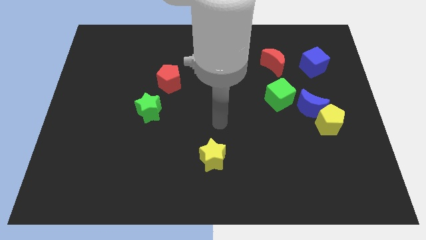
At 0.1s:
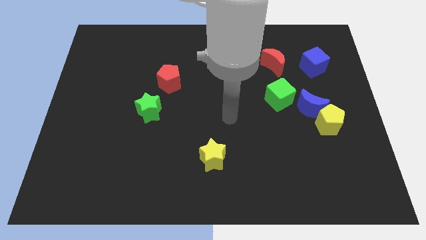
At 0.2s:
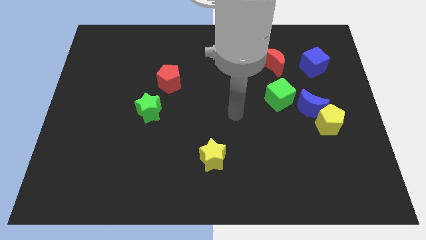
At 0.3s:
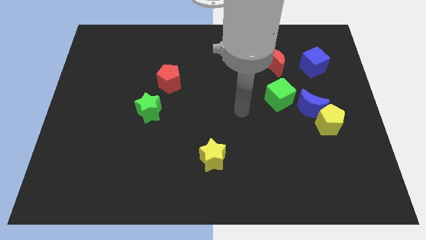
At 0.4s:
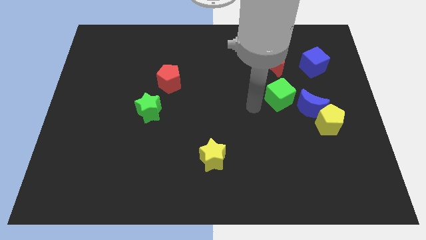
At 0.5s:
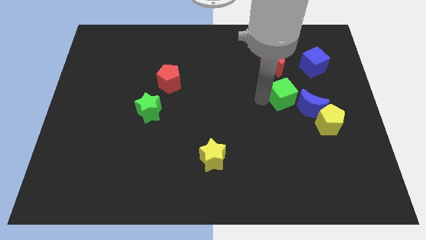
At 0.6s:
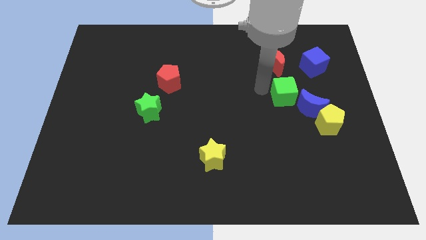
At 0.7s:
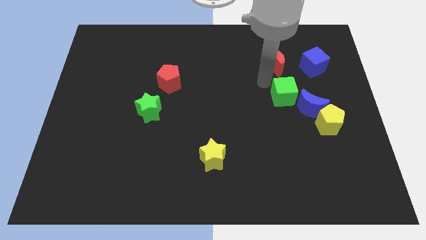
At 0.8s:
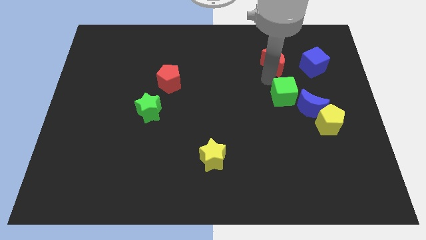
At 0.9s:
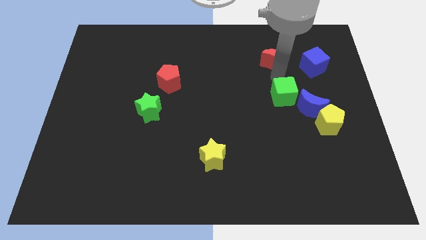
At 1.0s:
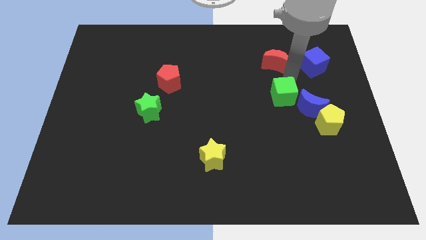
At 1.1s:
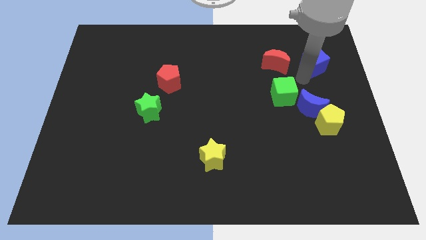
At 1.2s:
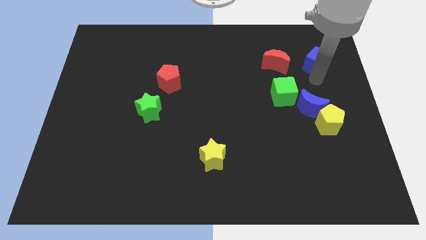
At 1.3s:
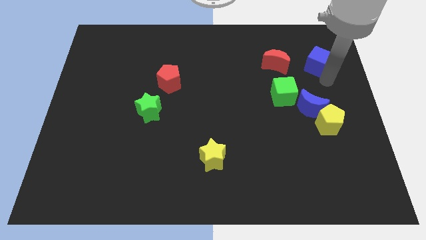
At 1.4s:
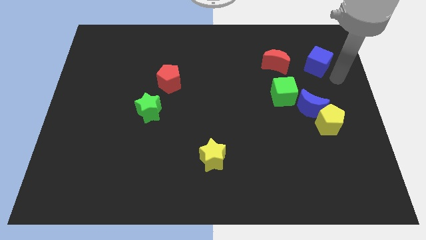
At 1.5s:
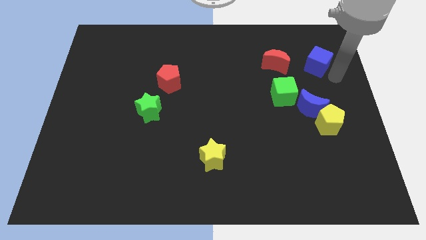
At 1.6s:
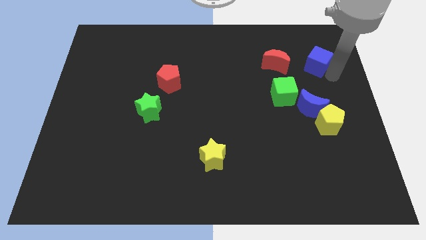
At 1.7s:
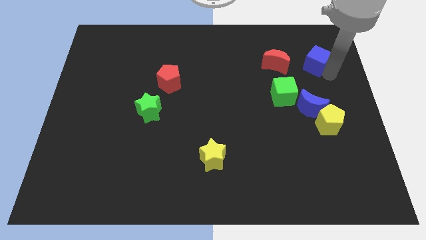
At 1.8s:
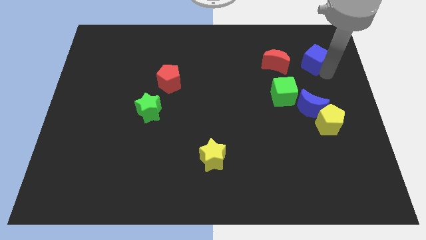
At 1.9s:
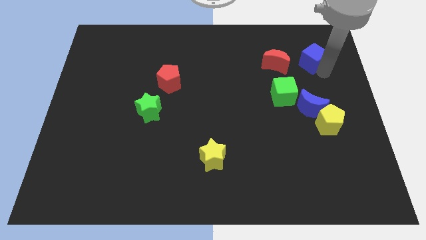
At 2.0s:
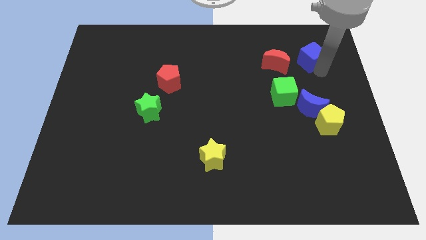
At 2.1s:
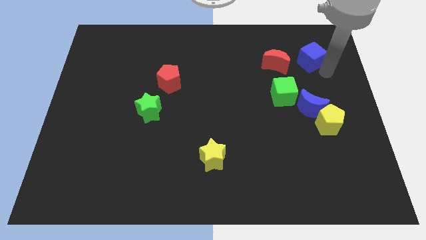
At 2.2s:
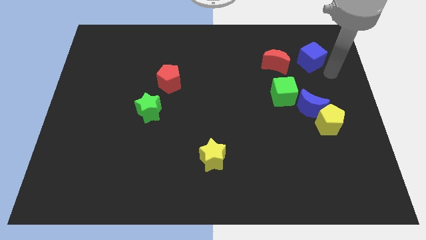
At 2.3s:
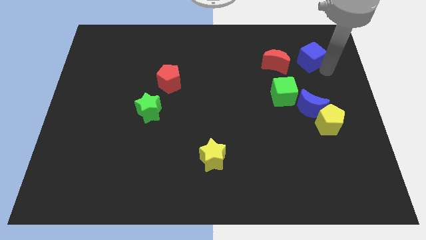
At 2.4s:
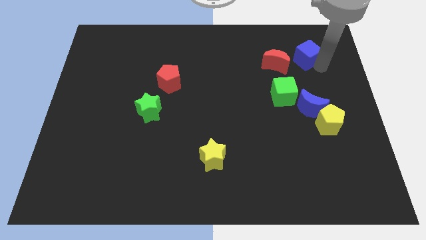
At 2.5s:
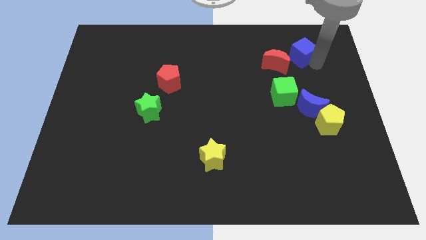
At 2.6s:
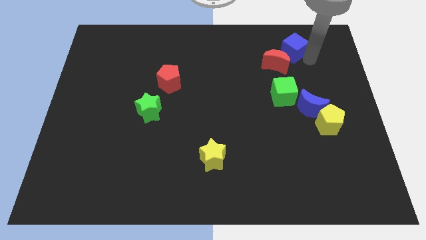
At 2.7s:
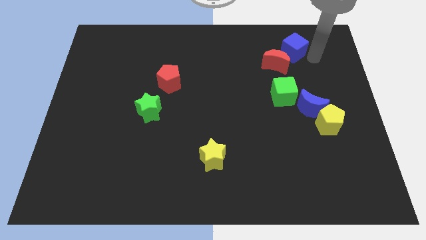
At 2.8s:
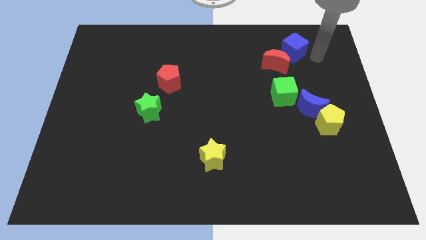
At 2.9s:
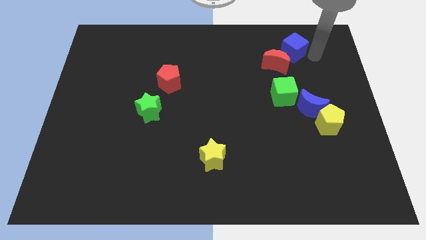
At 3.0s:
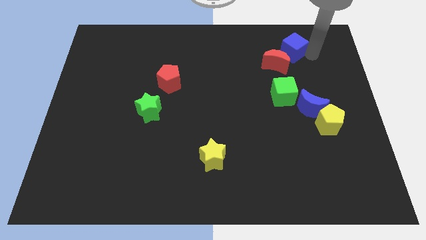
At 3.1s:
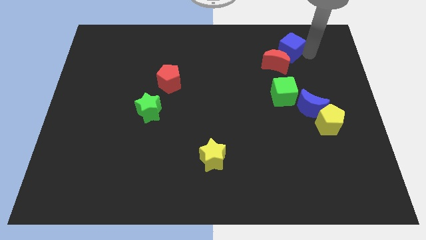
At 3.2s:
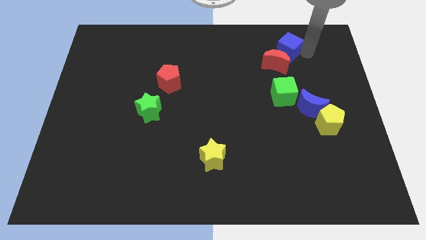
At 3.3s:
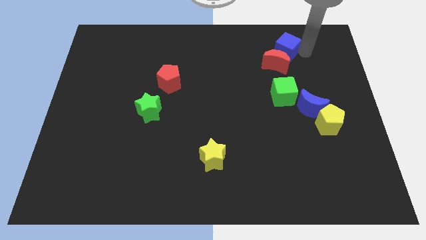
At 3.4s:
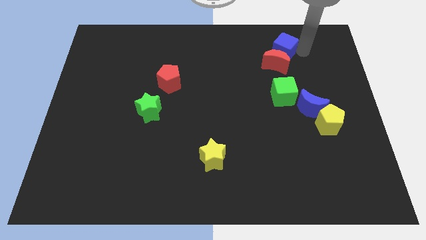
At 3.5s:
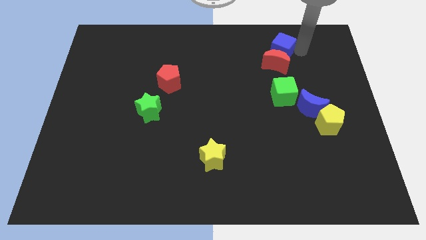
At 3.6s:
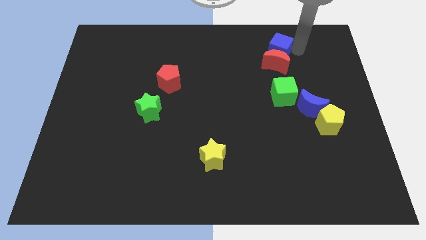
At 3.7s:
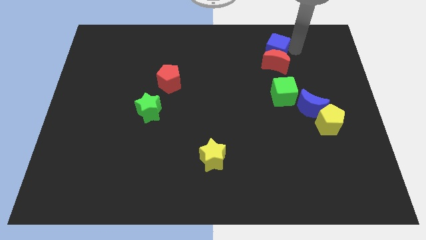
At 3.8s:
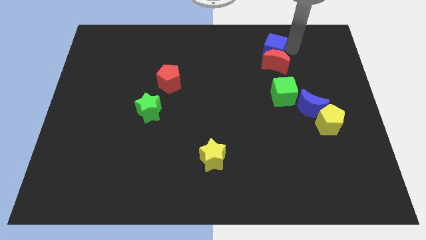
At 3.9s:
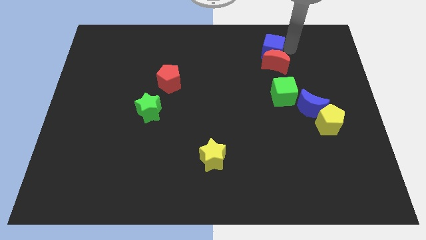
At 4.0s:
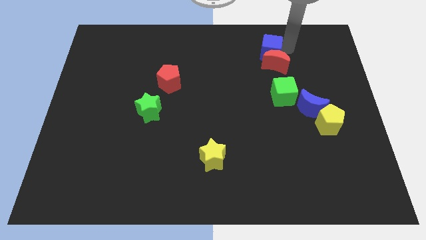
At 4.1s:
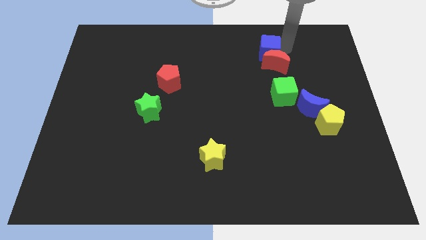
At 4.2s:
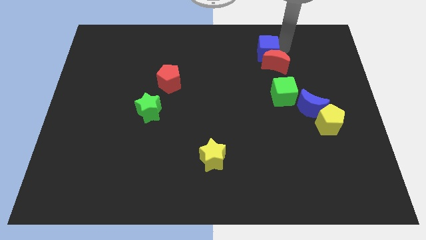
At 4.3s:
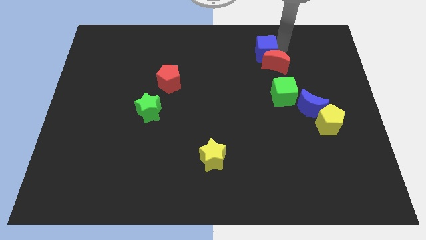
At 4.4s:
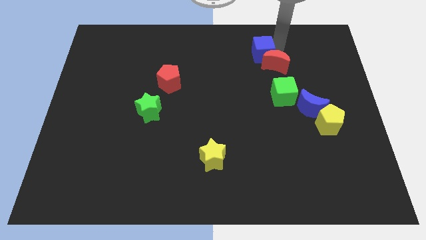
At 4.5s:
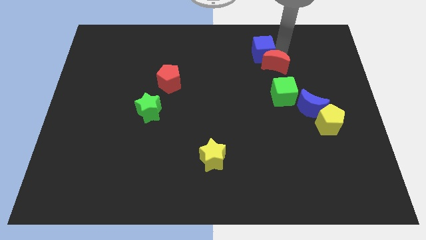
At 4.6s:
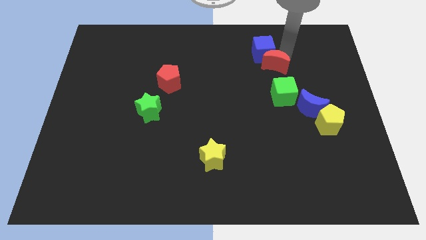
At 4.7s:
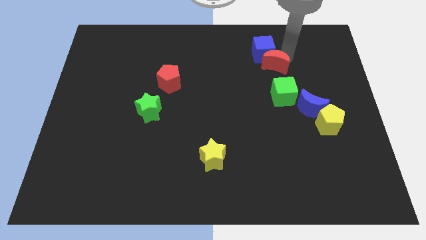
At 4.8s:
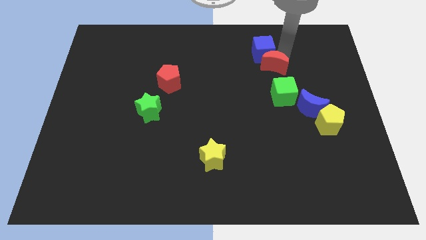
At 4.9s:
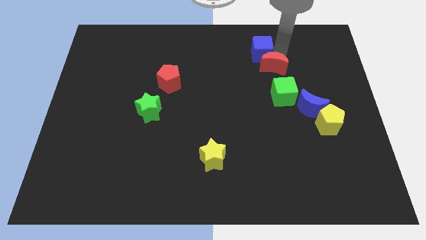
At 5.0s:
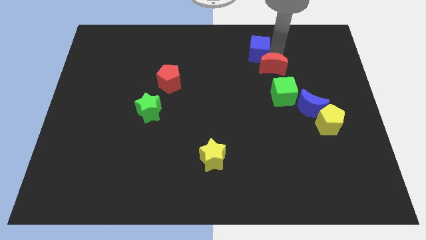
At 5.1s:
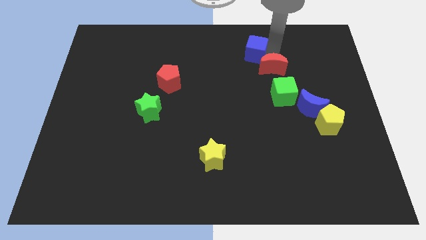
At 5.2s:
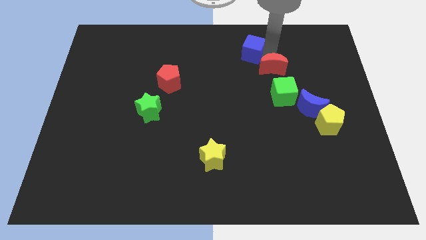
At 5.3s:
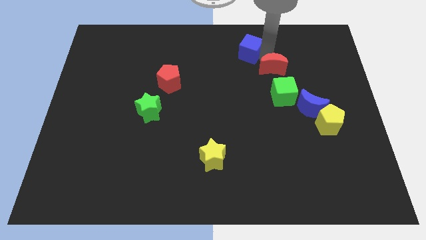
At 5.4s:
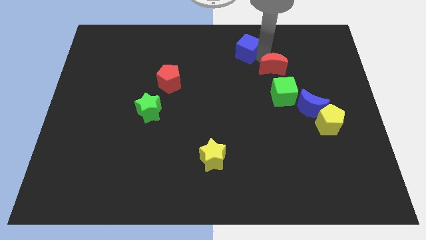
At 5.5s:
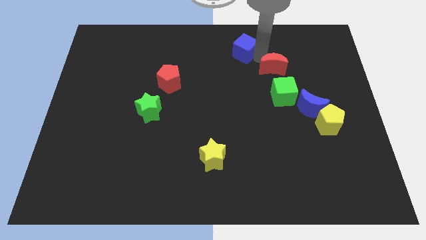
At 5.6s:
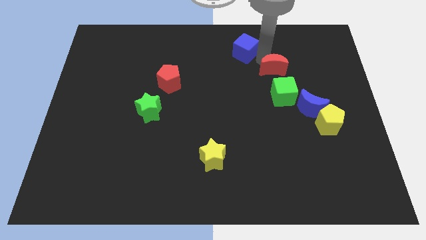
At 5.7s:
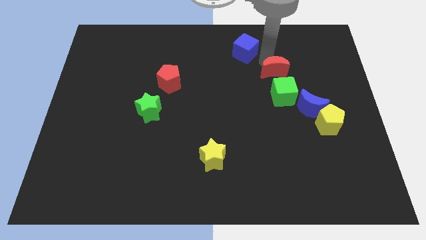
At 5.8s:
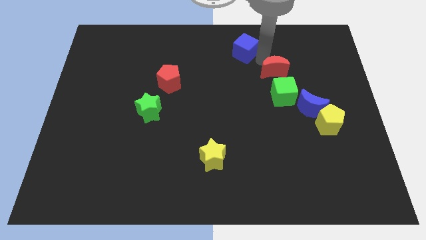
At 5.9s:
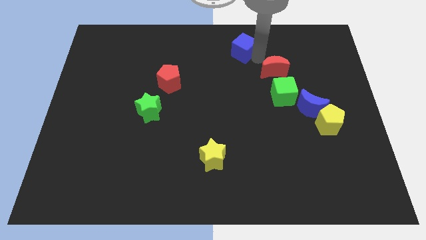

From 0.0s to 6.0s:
slide the blue cube to the towards your base

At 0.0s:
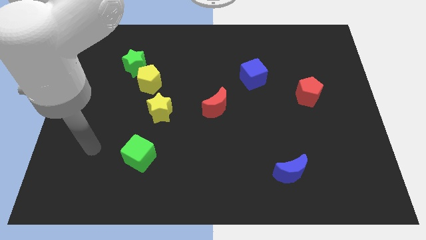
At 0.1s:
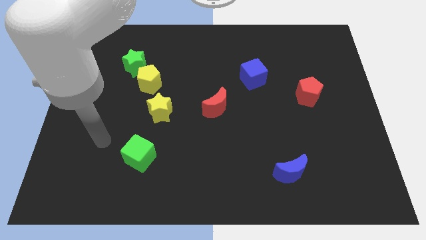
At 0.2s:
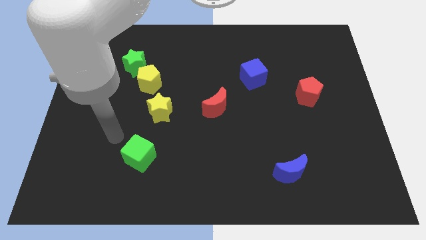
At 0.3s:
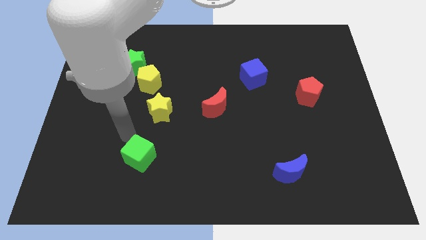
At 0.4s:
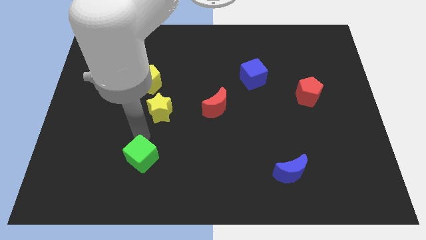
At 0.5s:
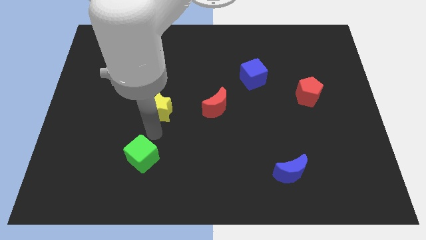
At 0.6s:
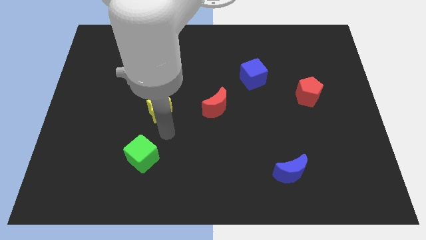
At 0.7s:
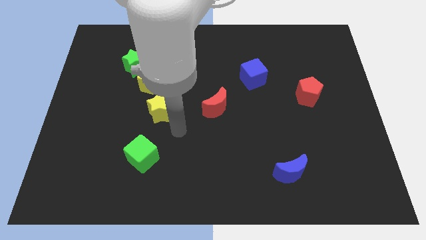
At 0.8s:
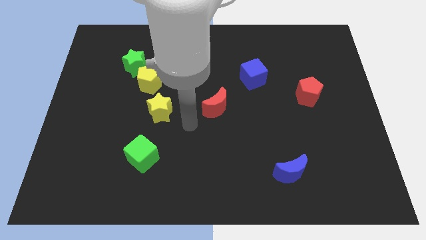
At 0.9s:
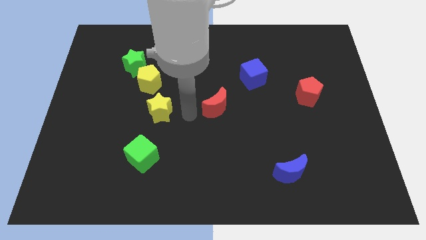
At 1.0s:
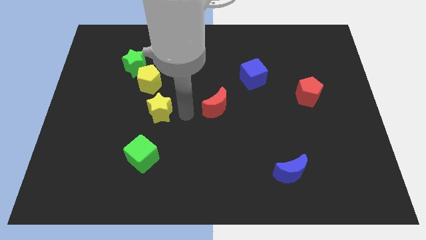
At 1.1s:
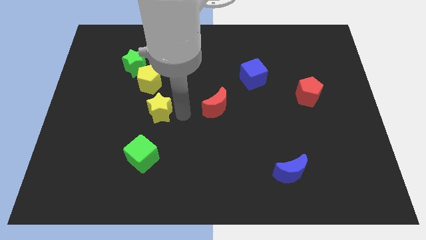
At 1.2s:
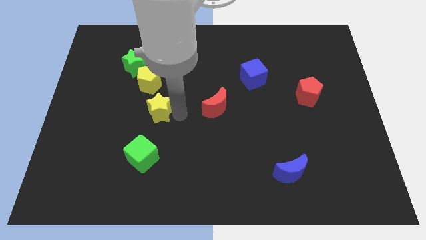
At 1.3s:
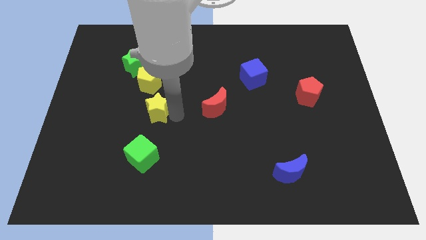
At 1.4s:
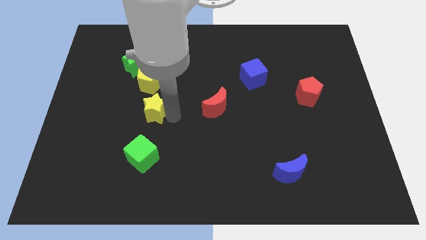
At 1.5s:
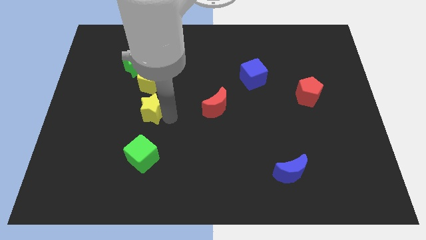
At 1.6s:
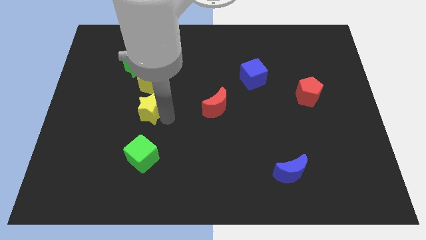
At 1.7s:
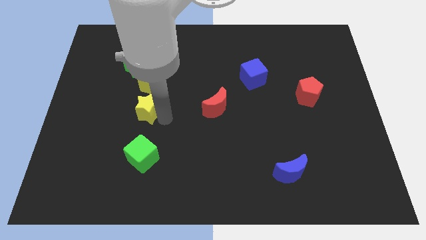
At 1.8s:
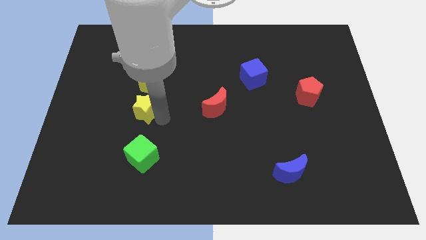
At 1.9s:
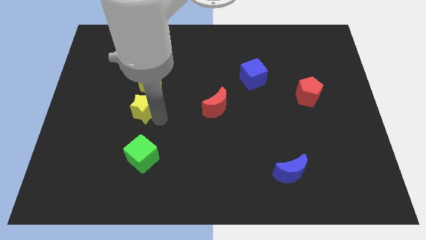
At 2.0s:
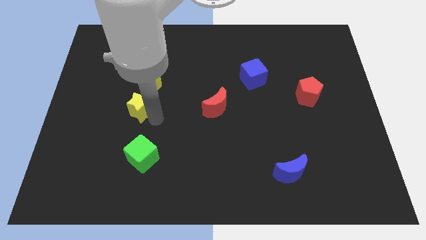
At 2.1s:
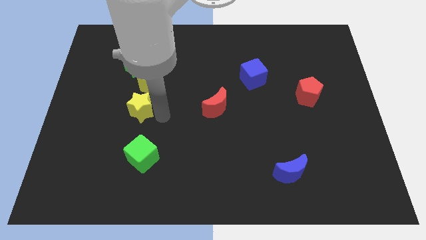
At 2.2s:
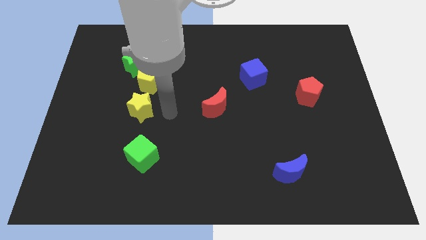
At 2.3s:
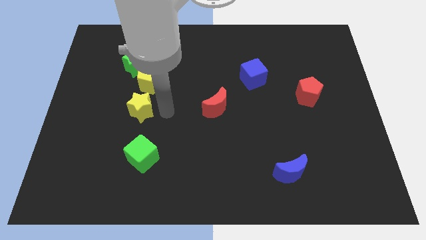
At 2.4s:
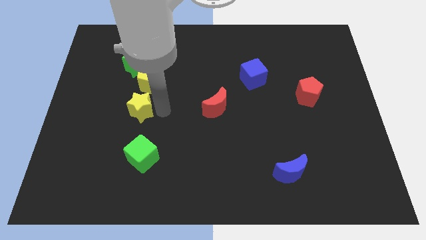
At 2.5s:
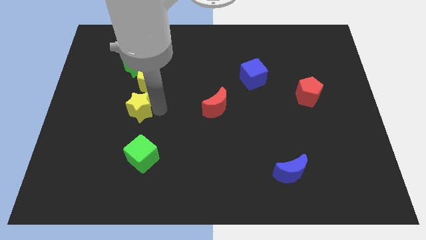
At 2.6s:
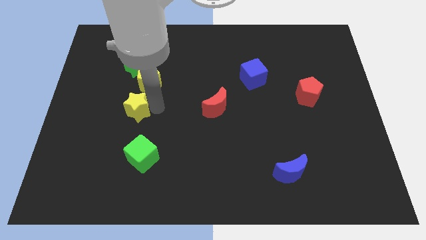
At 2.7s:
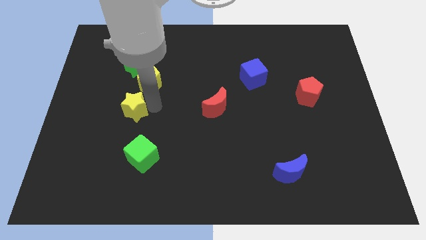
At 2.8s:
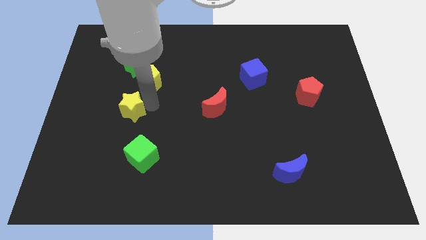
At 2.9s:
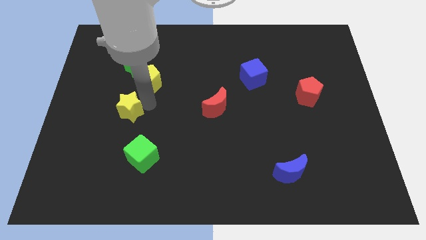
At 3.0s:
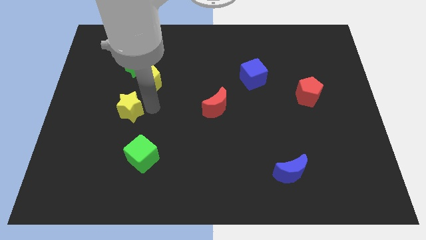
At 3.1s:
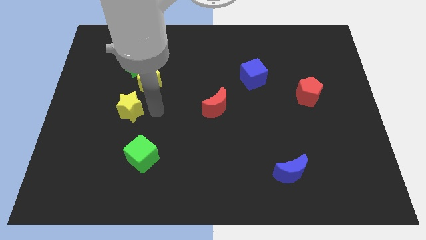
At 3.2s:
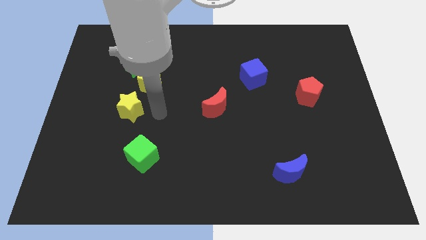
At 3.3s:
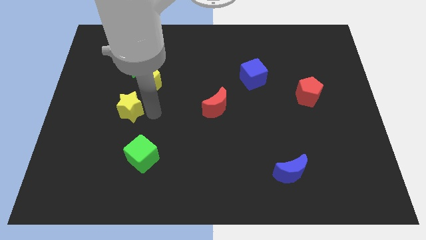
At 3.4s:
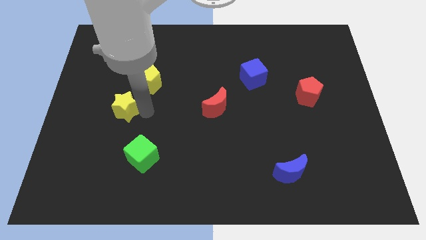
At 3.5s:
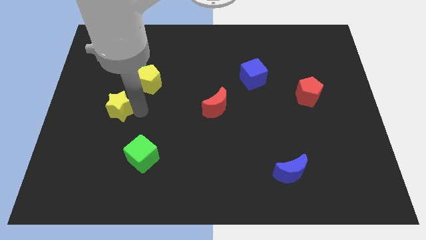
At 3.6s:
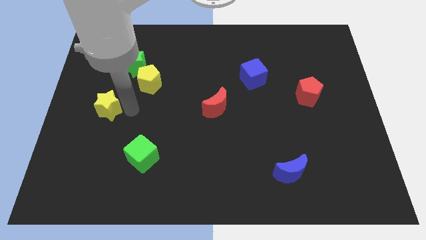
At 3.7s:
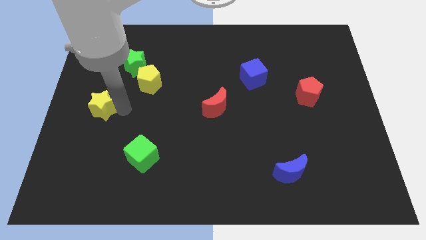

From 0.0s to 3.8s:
slide the yellow star to the left side of the board
